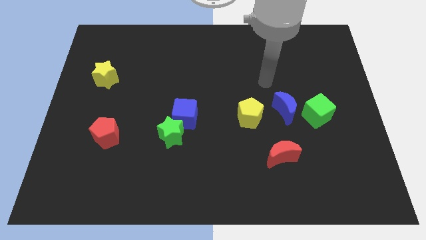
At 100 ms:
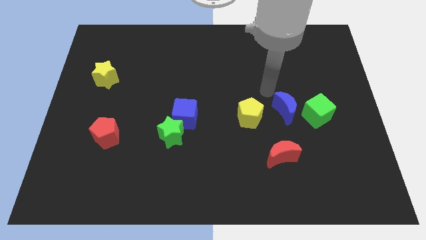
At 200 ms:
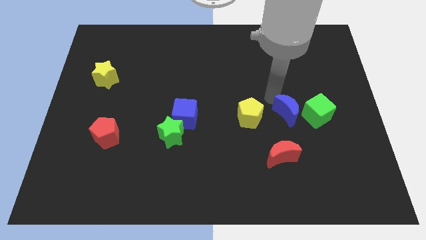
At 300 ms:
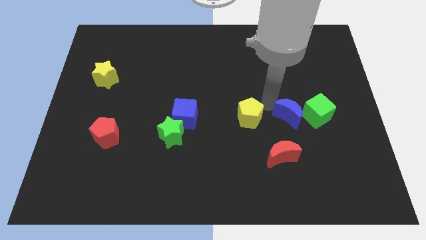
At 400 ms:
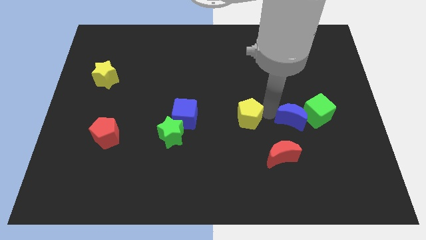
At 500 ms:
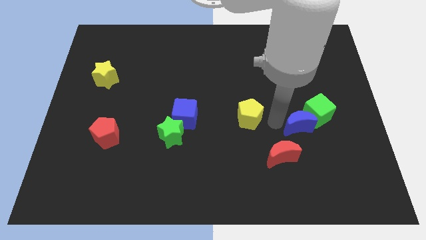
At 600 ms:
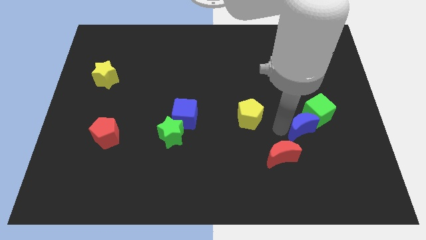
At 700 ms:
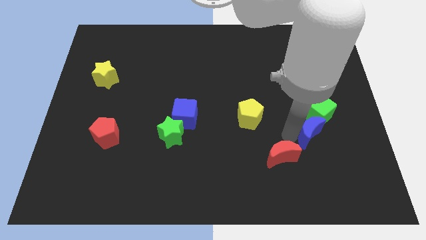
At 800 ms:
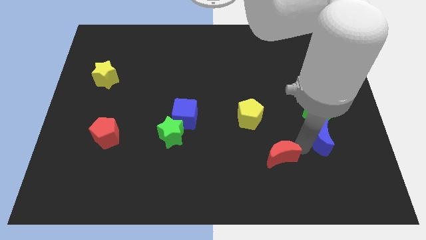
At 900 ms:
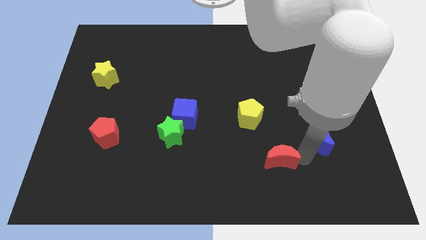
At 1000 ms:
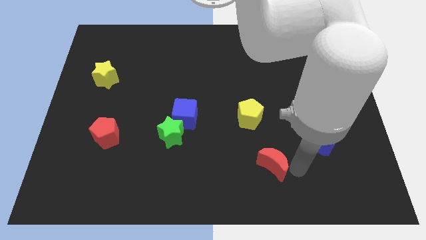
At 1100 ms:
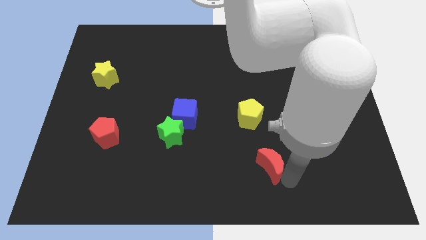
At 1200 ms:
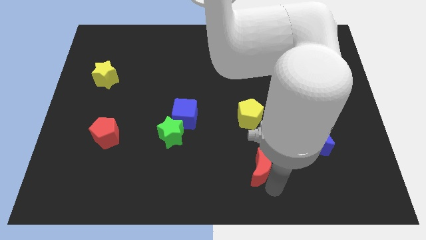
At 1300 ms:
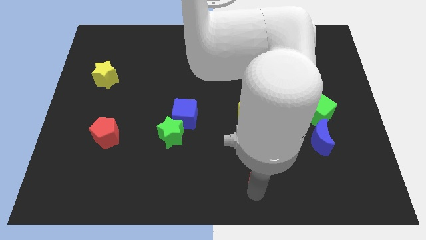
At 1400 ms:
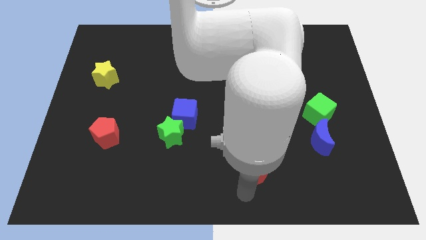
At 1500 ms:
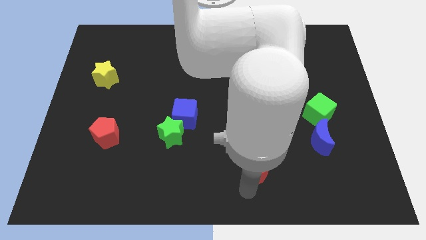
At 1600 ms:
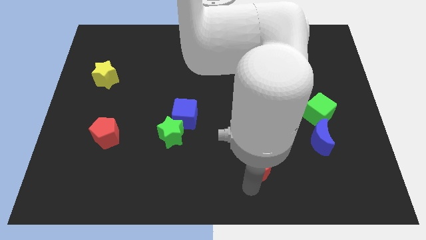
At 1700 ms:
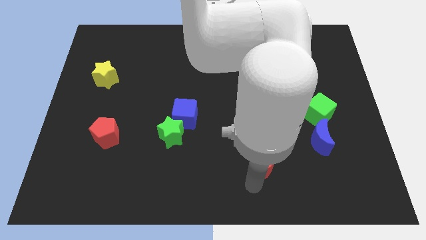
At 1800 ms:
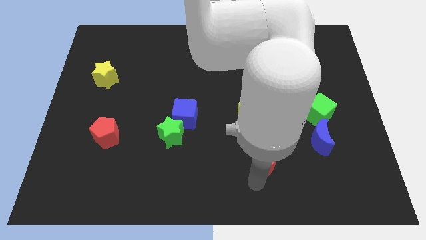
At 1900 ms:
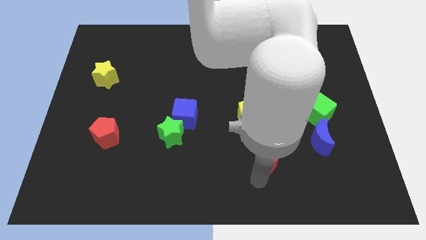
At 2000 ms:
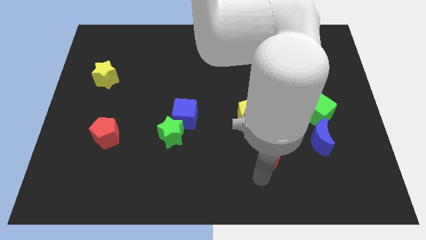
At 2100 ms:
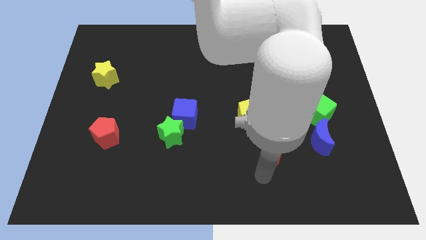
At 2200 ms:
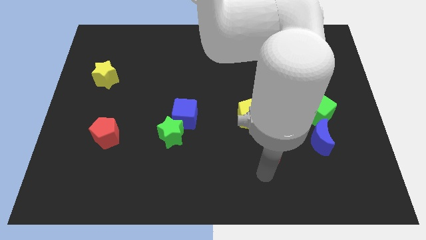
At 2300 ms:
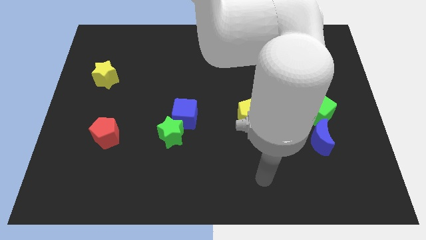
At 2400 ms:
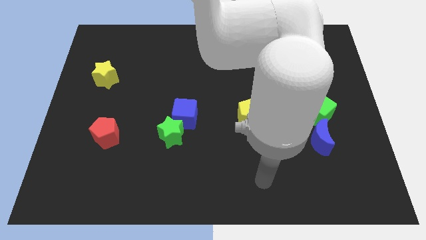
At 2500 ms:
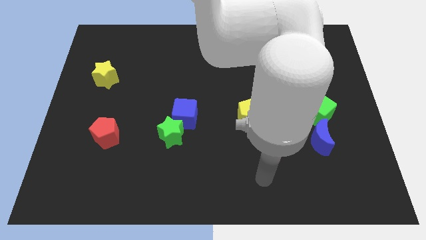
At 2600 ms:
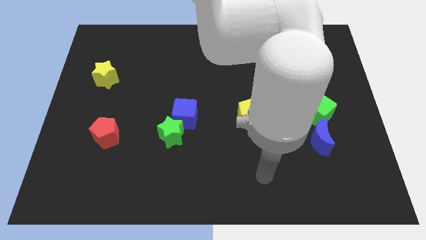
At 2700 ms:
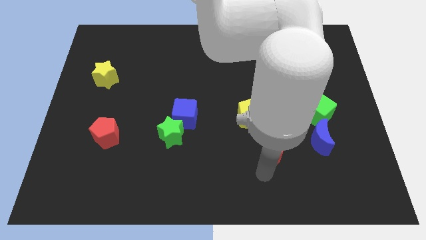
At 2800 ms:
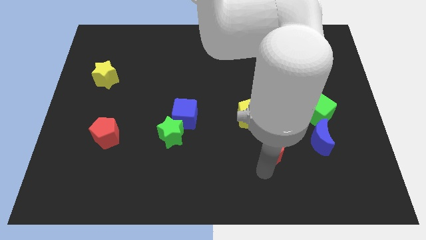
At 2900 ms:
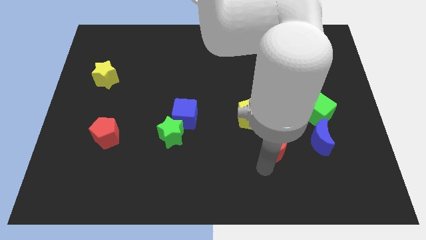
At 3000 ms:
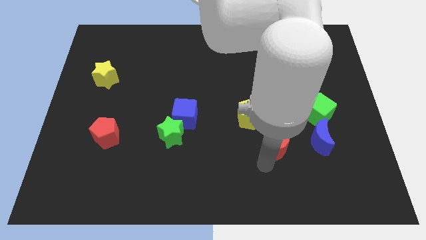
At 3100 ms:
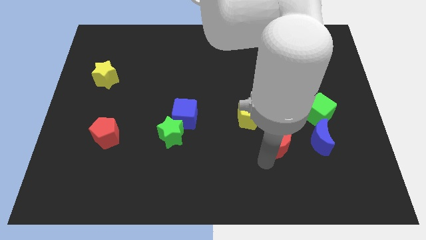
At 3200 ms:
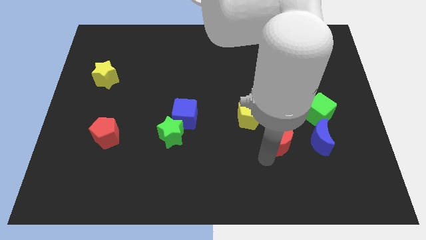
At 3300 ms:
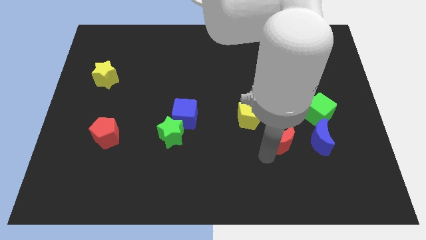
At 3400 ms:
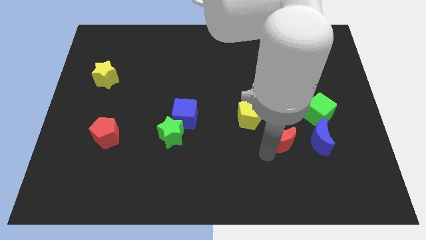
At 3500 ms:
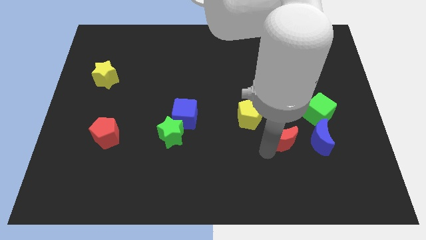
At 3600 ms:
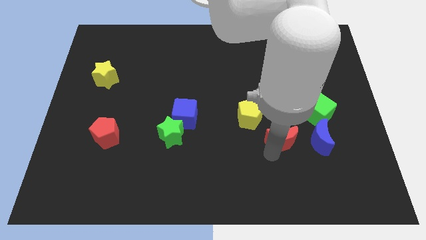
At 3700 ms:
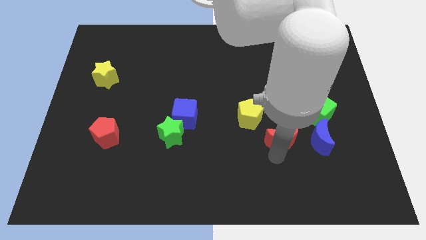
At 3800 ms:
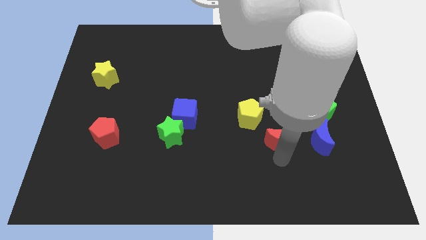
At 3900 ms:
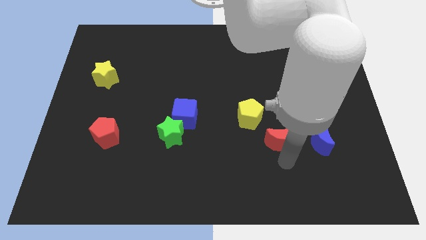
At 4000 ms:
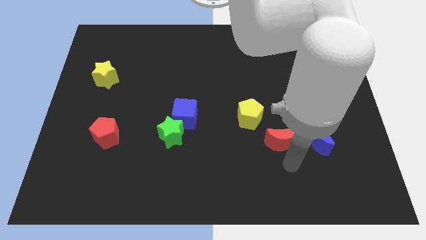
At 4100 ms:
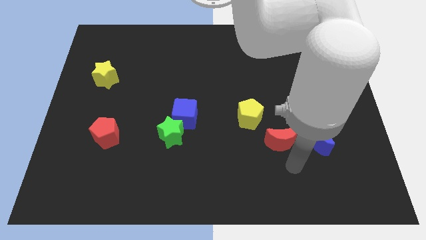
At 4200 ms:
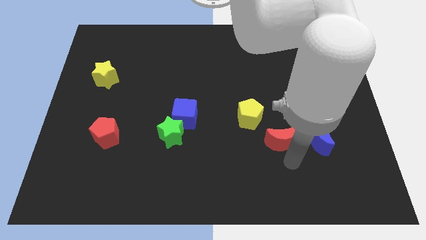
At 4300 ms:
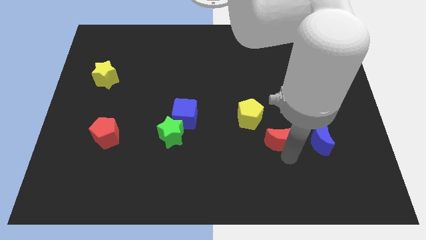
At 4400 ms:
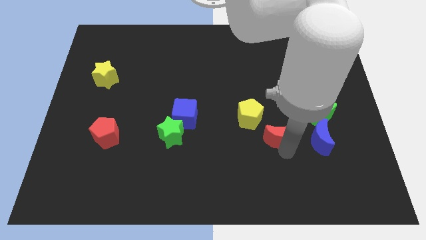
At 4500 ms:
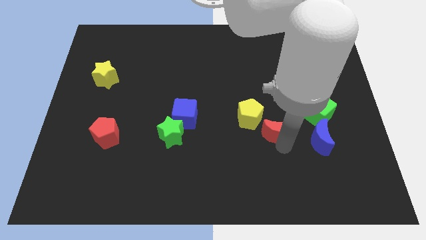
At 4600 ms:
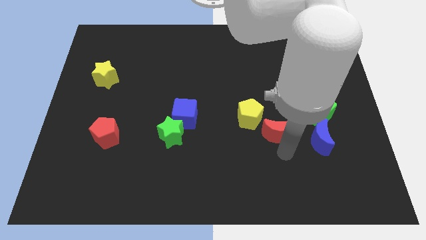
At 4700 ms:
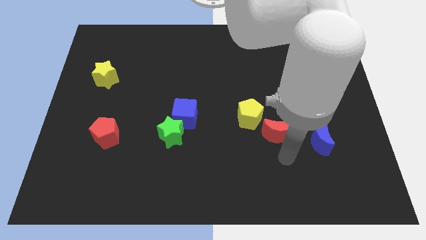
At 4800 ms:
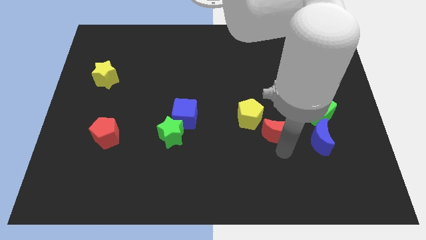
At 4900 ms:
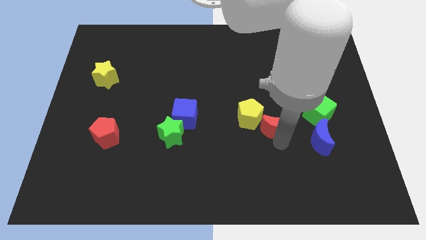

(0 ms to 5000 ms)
slightly slide the red moon upwards

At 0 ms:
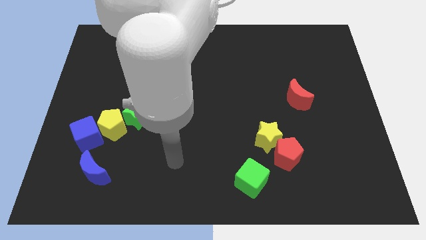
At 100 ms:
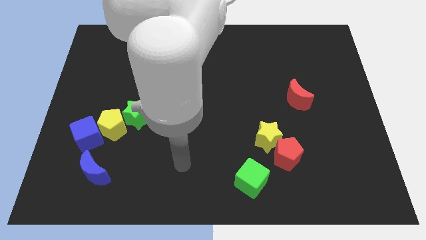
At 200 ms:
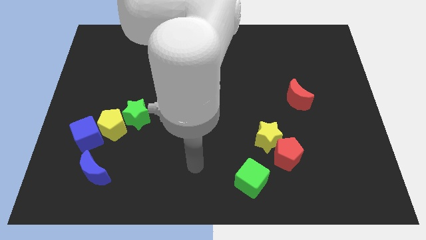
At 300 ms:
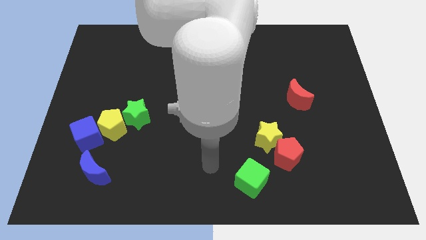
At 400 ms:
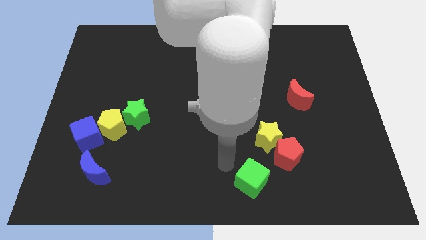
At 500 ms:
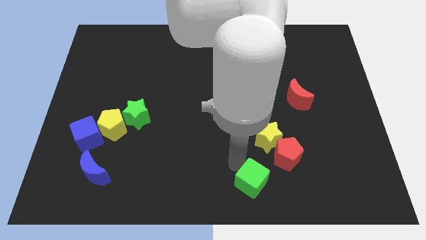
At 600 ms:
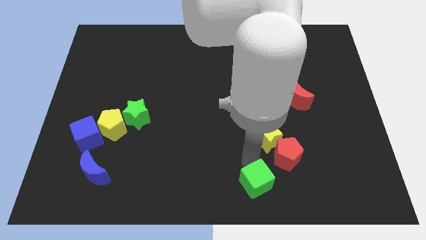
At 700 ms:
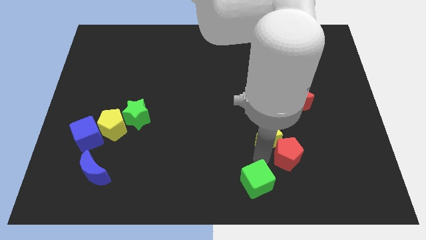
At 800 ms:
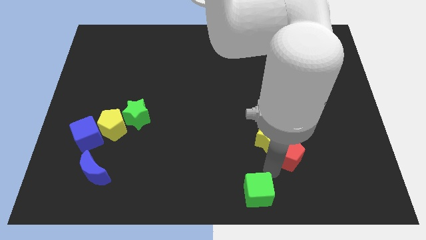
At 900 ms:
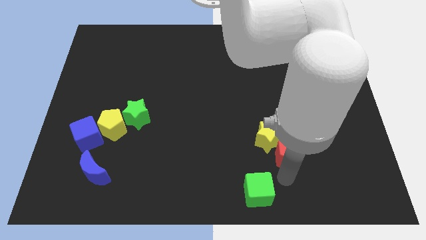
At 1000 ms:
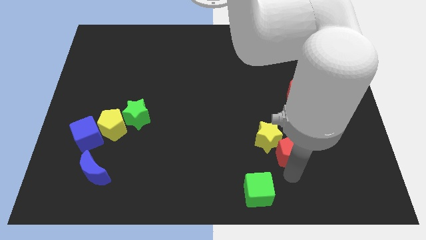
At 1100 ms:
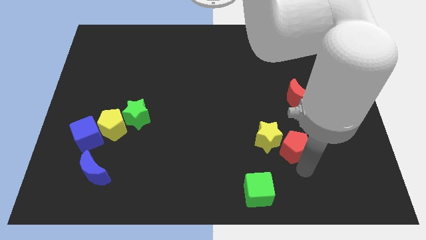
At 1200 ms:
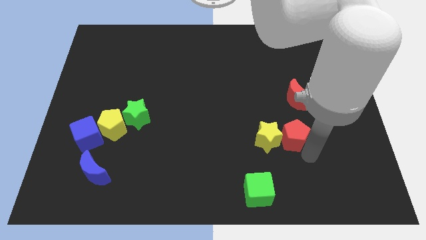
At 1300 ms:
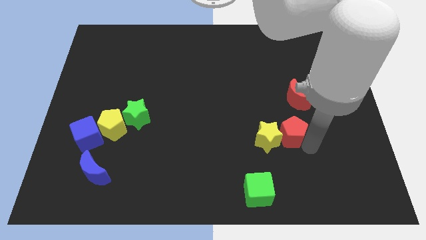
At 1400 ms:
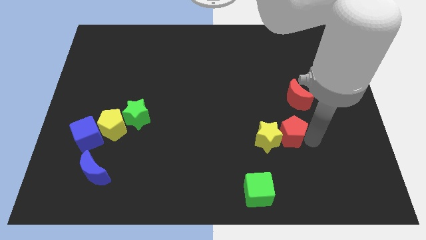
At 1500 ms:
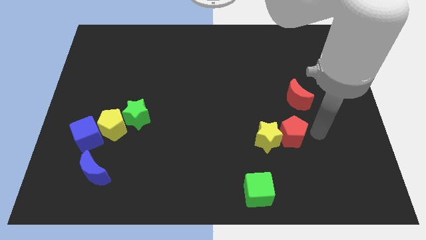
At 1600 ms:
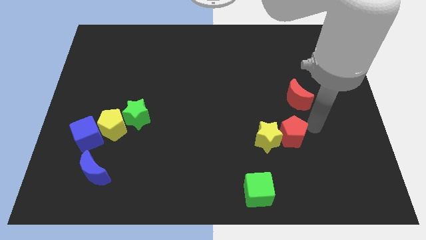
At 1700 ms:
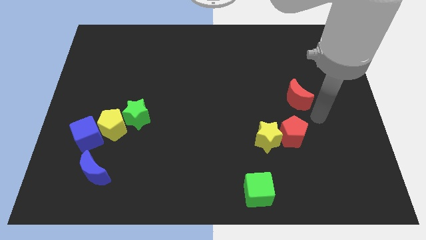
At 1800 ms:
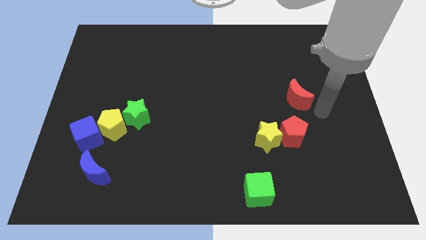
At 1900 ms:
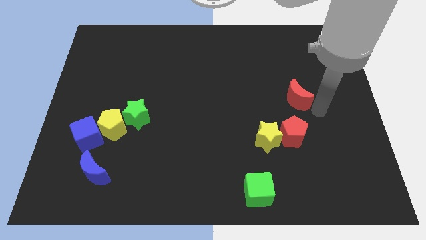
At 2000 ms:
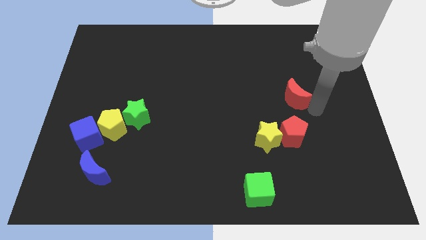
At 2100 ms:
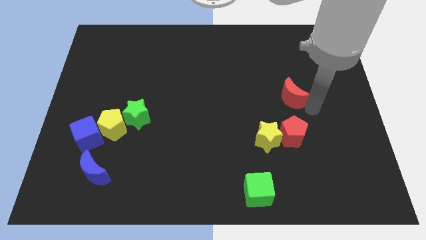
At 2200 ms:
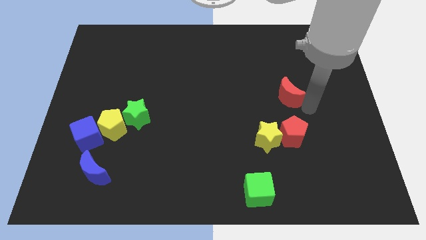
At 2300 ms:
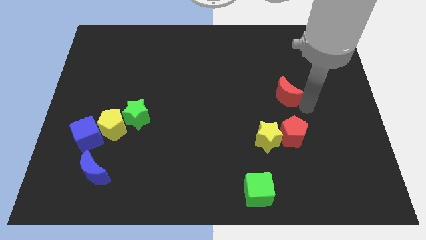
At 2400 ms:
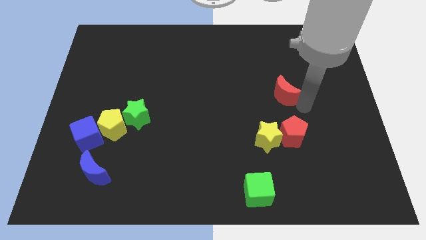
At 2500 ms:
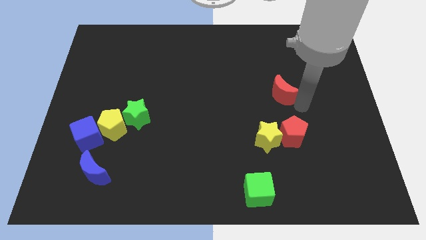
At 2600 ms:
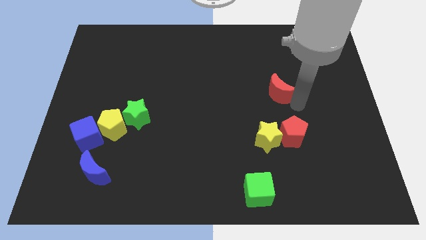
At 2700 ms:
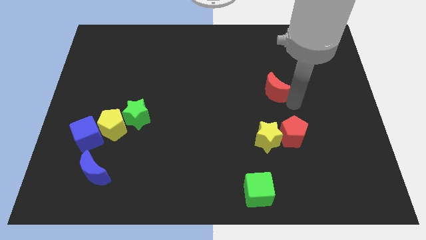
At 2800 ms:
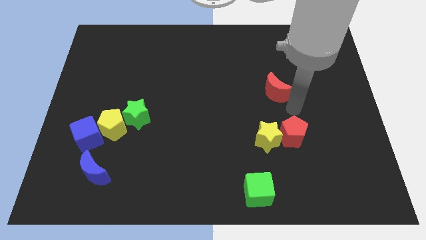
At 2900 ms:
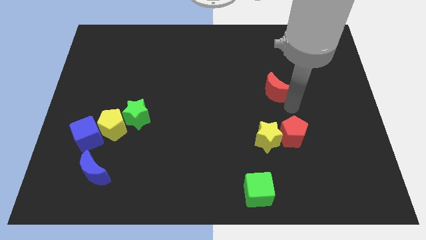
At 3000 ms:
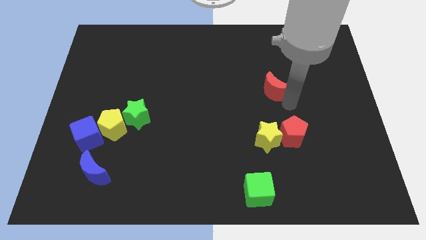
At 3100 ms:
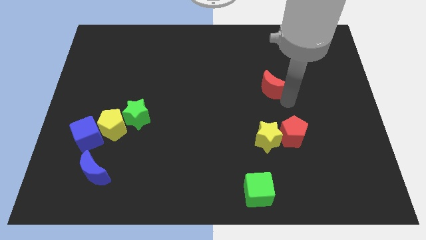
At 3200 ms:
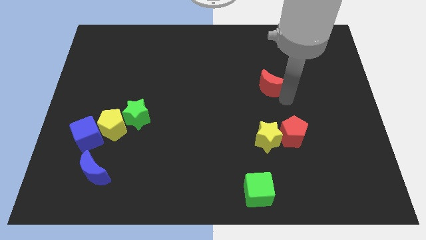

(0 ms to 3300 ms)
move the red moon upwards and to the left diagonally a bit
